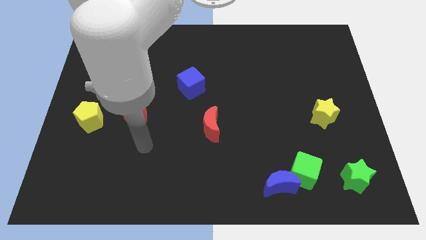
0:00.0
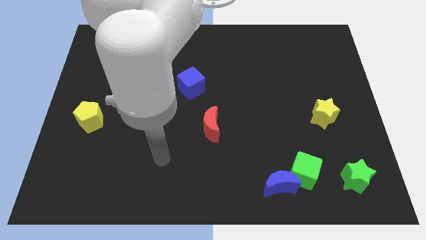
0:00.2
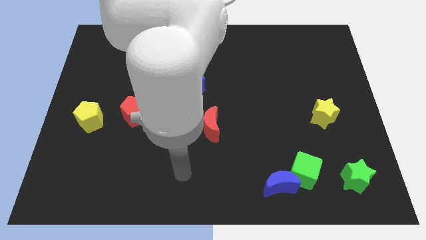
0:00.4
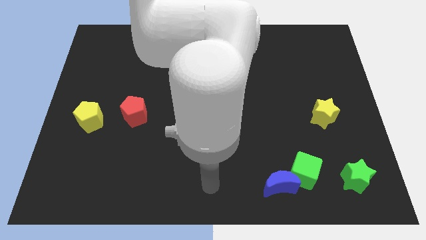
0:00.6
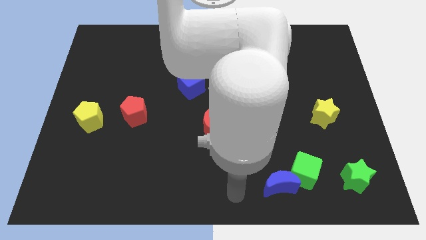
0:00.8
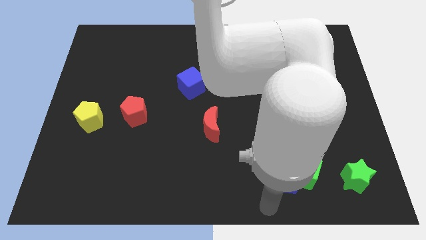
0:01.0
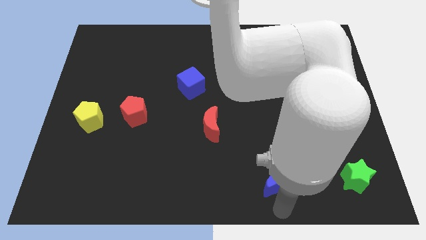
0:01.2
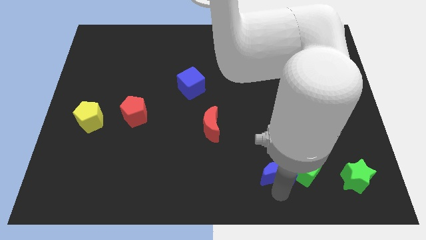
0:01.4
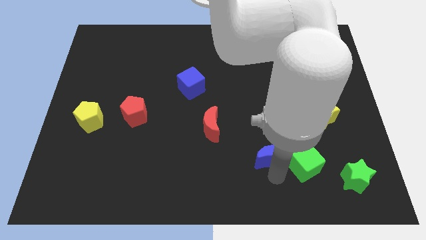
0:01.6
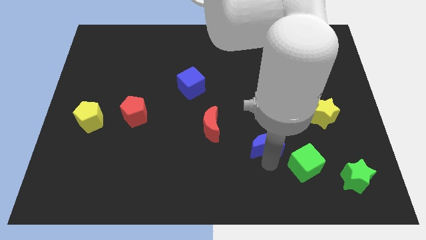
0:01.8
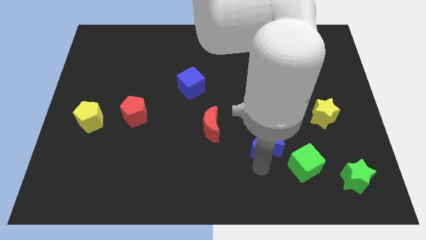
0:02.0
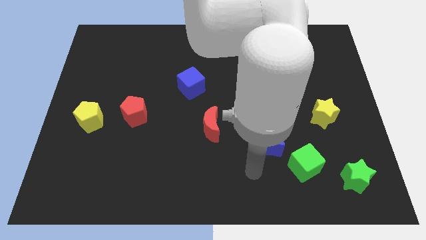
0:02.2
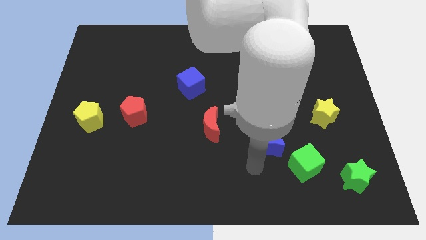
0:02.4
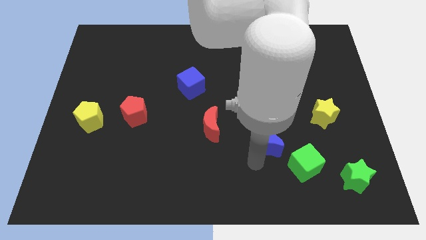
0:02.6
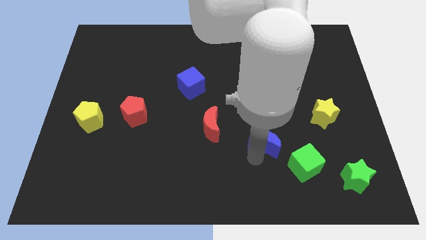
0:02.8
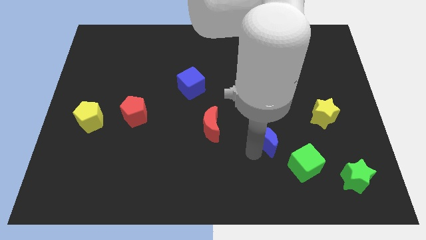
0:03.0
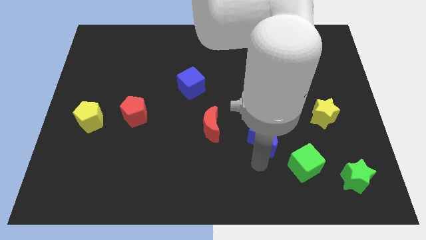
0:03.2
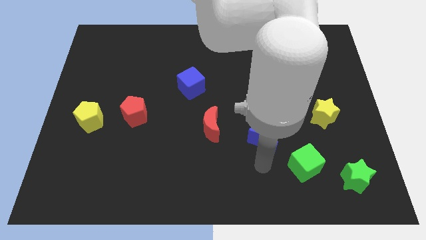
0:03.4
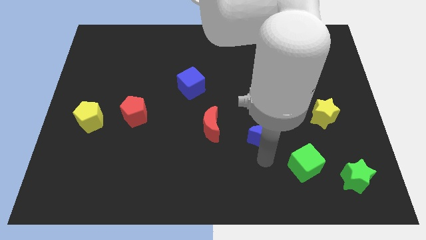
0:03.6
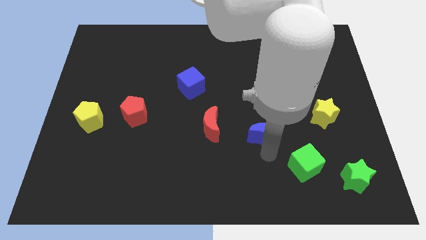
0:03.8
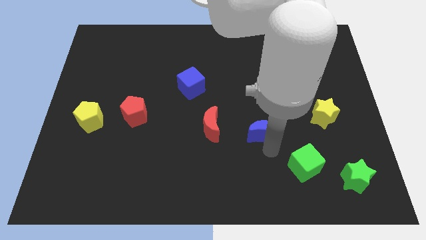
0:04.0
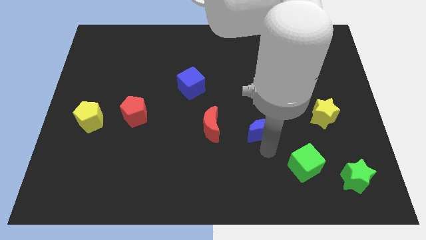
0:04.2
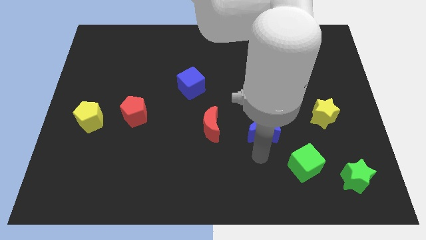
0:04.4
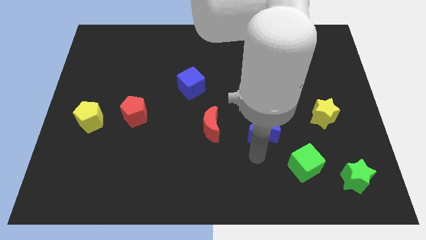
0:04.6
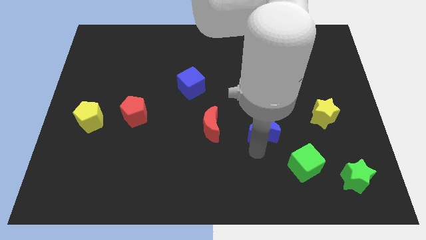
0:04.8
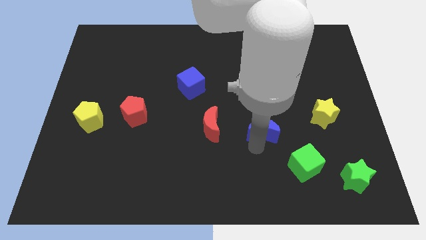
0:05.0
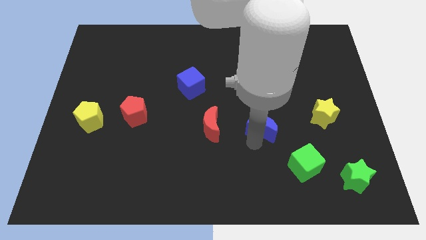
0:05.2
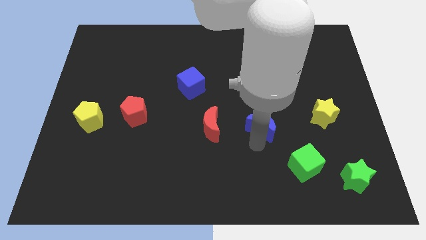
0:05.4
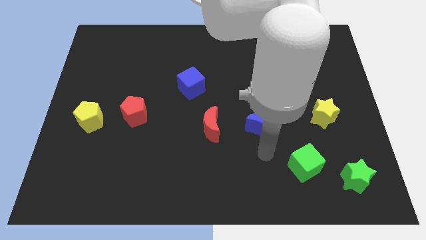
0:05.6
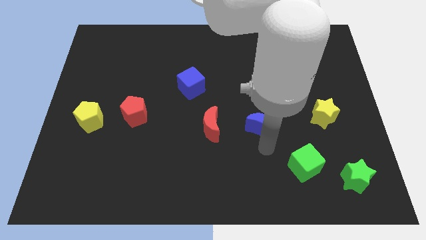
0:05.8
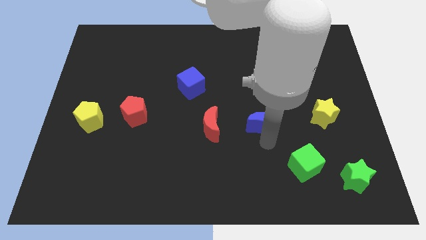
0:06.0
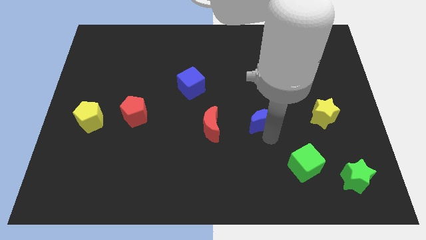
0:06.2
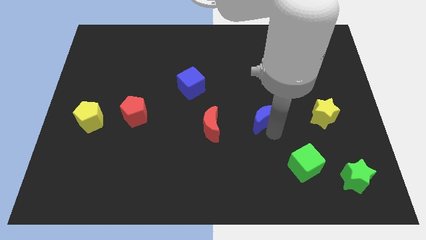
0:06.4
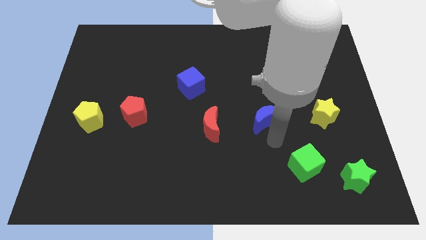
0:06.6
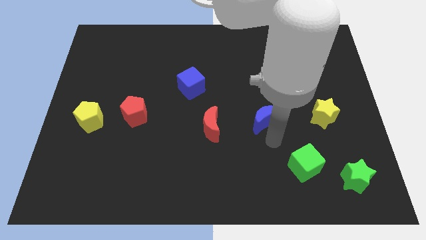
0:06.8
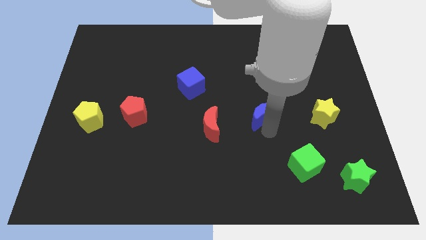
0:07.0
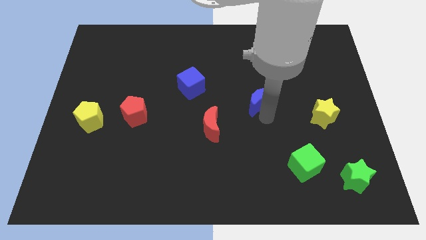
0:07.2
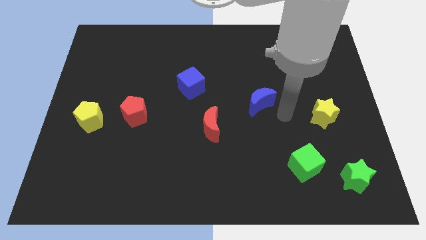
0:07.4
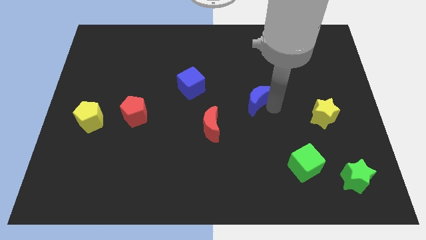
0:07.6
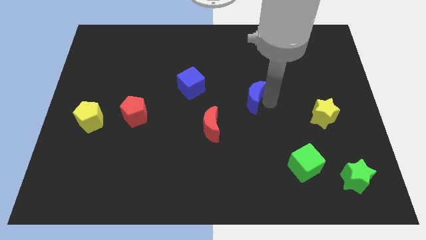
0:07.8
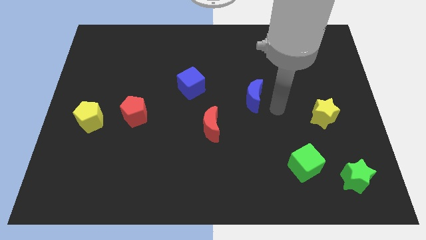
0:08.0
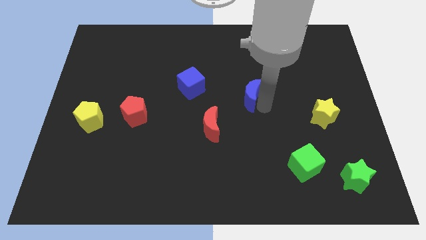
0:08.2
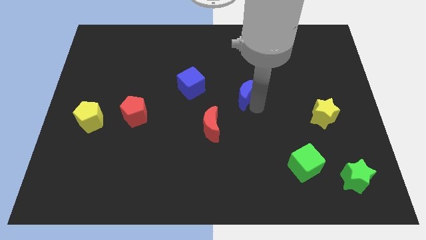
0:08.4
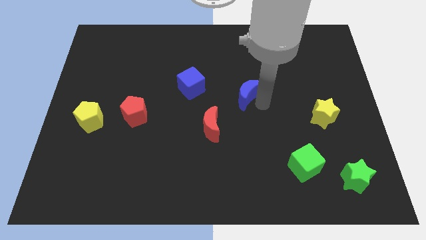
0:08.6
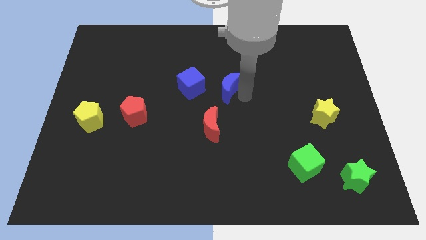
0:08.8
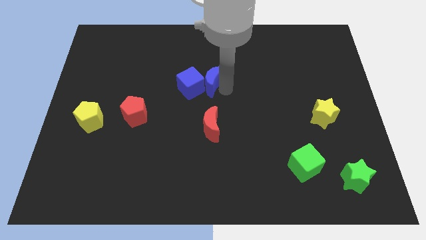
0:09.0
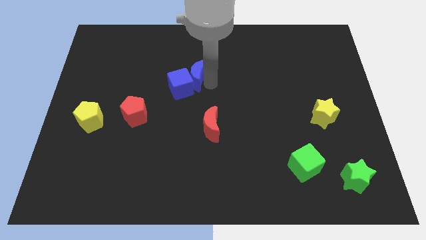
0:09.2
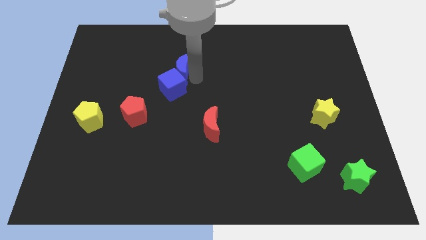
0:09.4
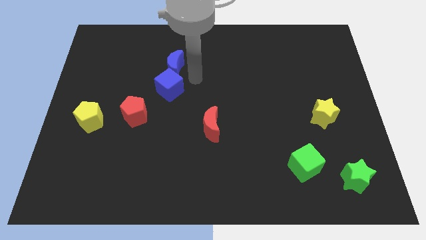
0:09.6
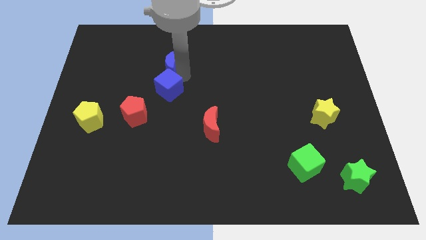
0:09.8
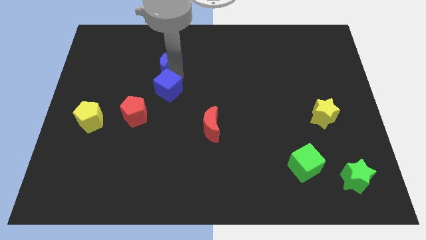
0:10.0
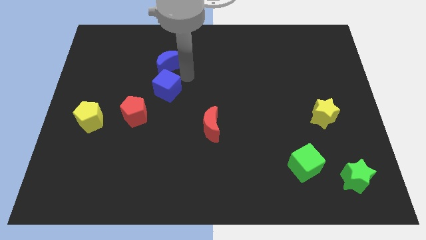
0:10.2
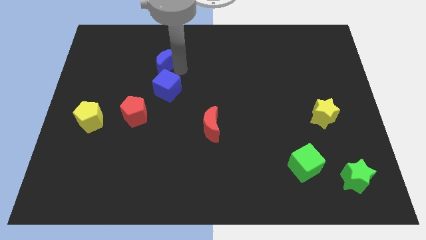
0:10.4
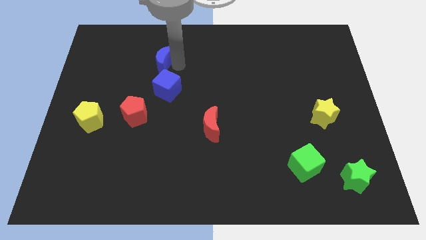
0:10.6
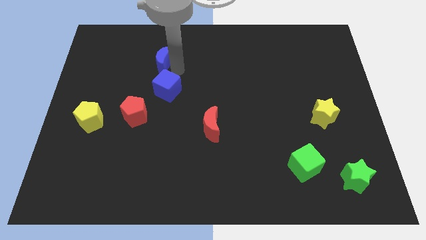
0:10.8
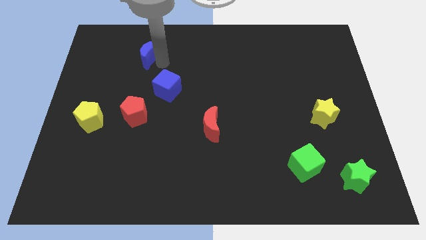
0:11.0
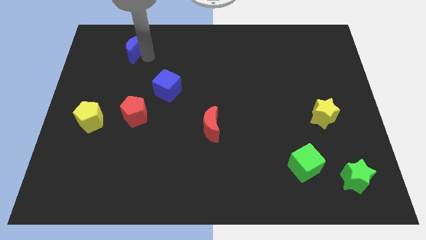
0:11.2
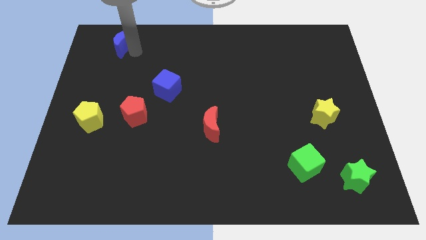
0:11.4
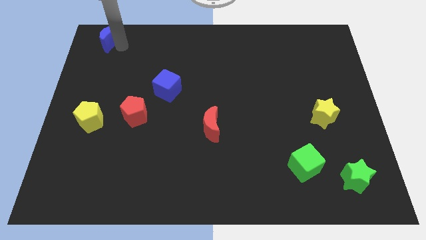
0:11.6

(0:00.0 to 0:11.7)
slide the blue moon to the top left

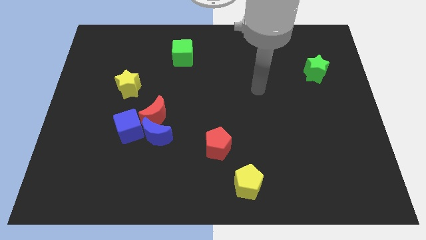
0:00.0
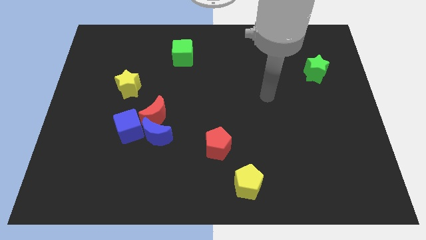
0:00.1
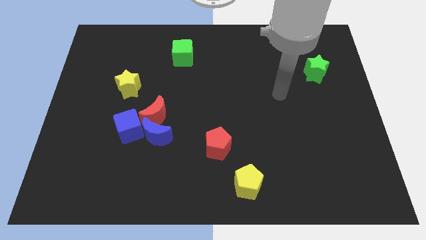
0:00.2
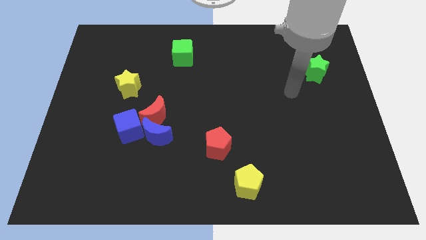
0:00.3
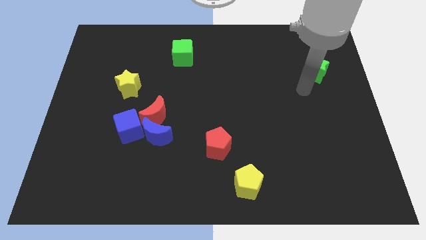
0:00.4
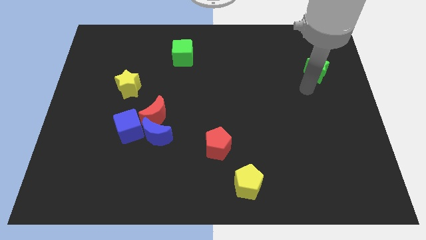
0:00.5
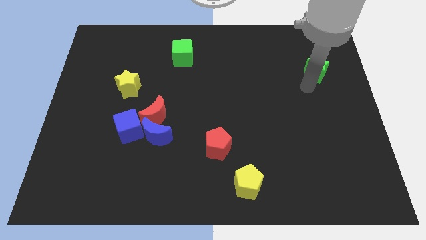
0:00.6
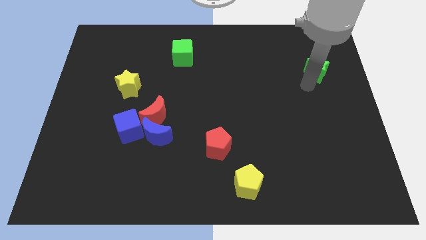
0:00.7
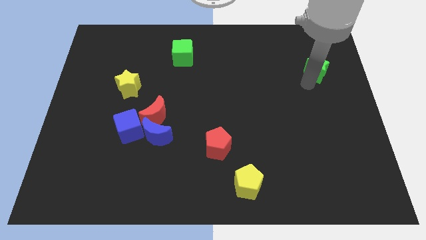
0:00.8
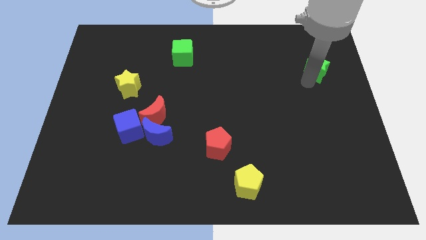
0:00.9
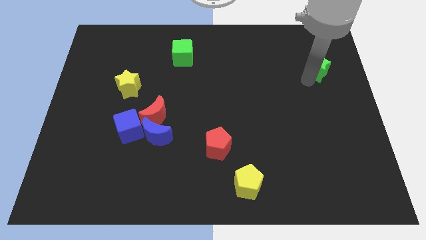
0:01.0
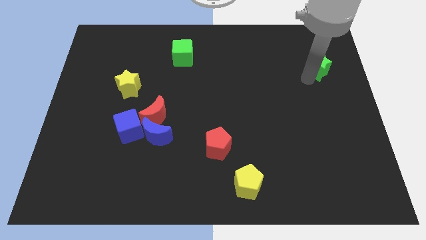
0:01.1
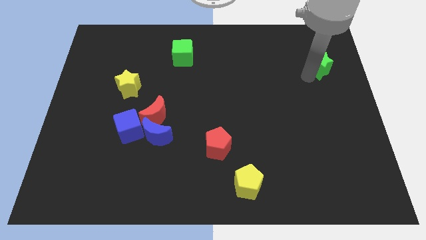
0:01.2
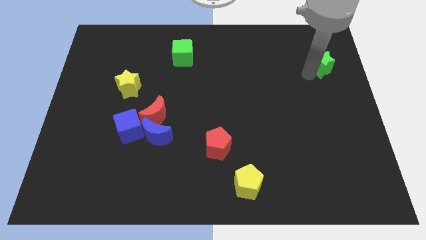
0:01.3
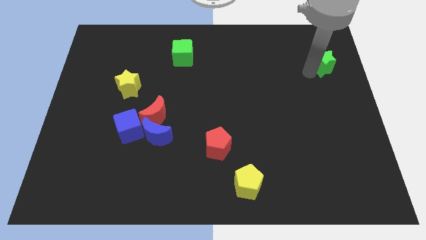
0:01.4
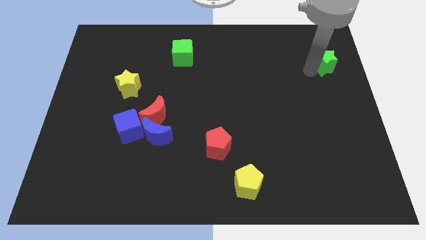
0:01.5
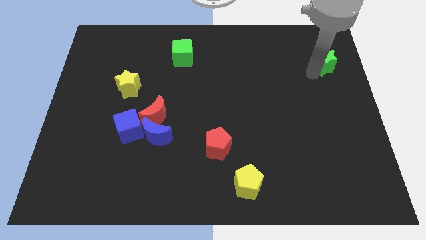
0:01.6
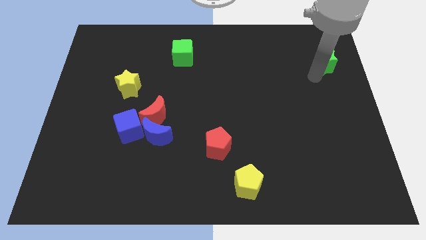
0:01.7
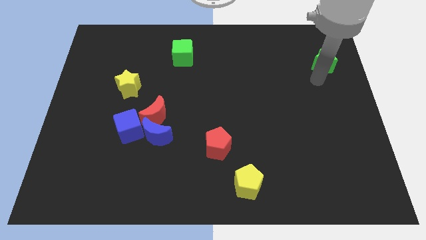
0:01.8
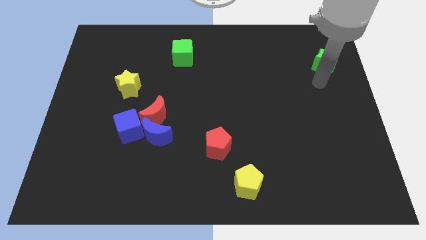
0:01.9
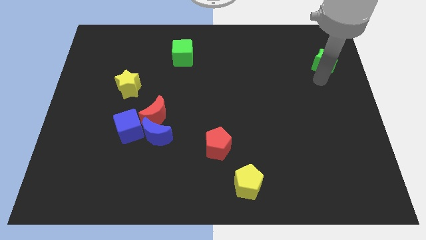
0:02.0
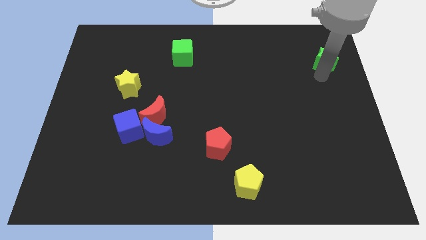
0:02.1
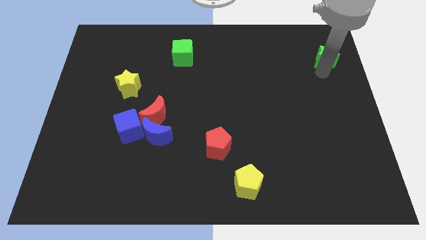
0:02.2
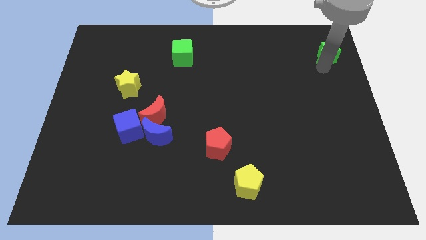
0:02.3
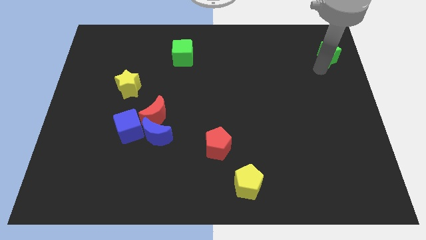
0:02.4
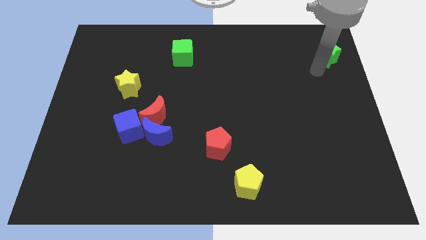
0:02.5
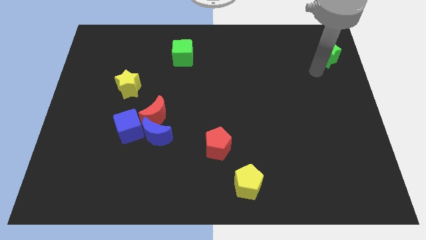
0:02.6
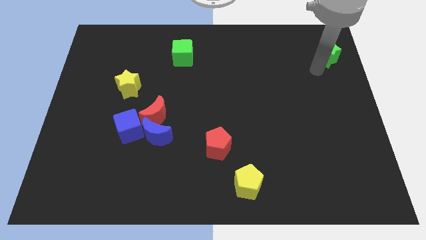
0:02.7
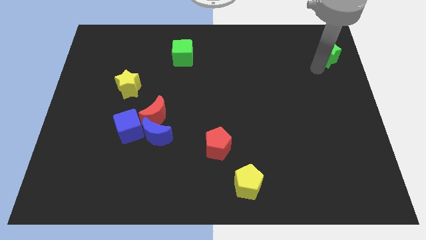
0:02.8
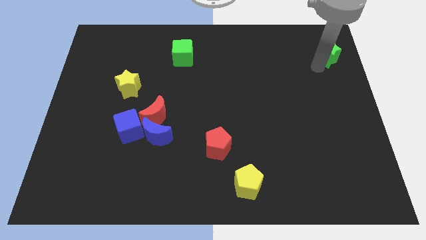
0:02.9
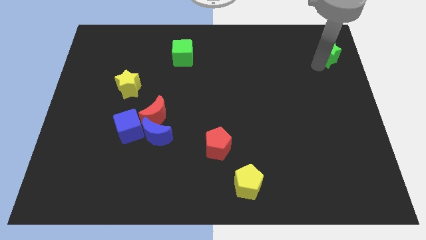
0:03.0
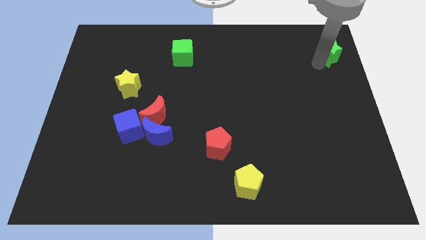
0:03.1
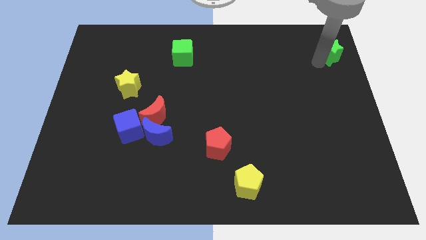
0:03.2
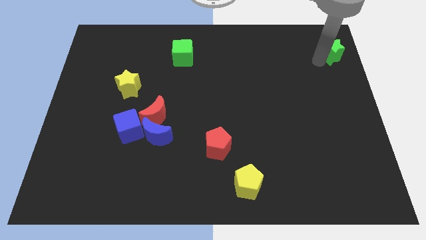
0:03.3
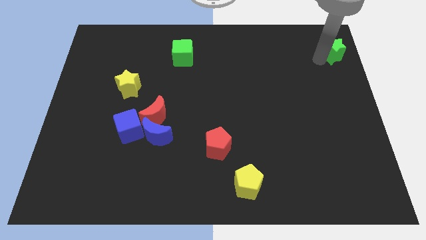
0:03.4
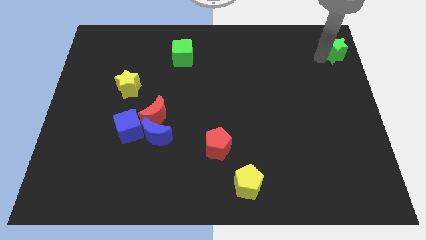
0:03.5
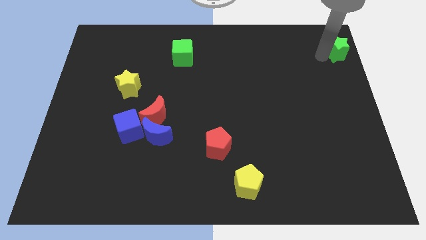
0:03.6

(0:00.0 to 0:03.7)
move the green star to the top right corner
